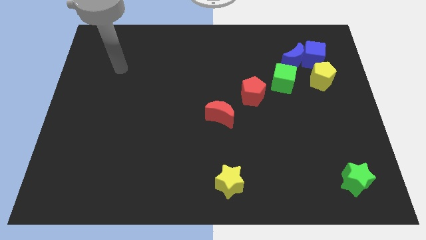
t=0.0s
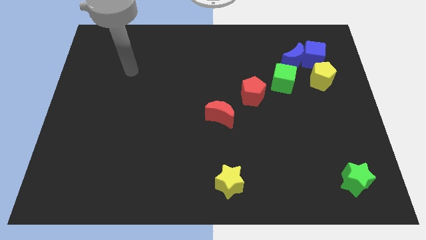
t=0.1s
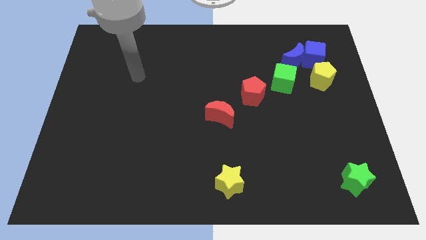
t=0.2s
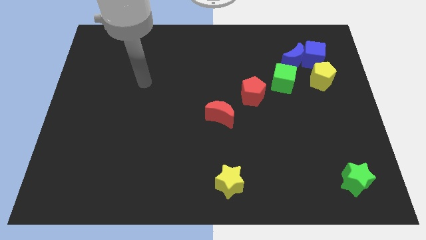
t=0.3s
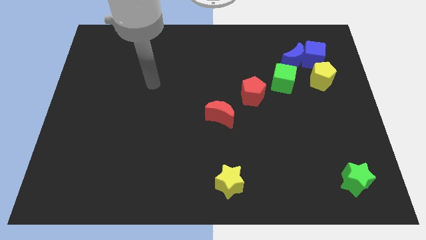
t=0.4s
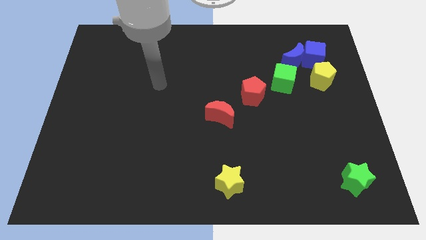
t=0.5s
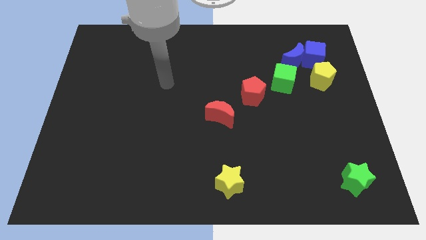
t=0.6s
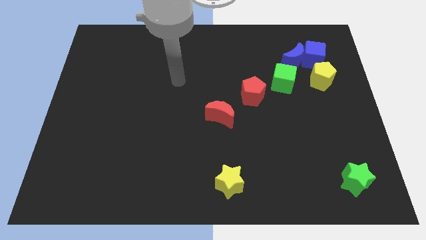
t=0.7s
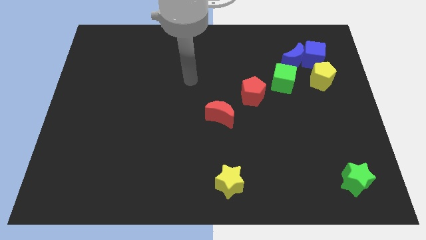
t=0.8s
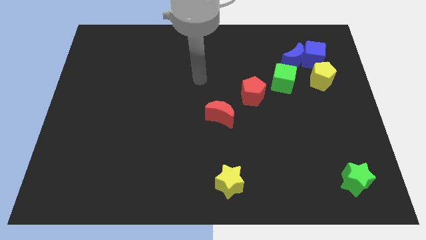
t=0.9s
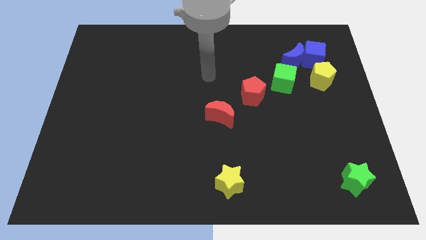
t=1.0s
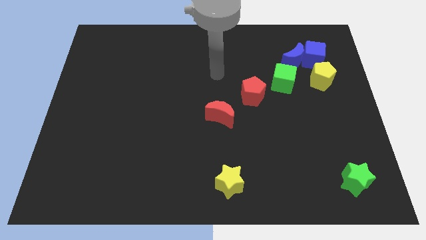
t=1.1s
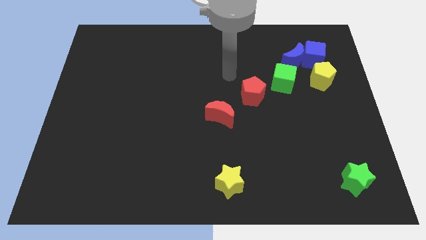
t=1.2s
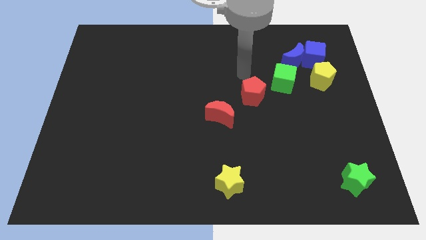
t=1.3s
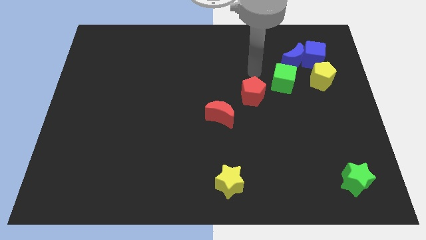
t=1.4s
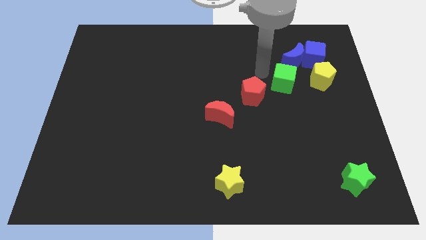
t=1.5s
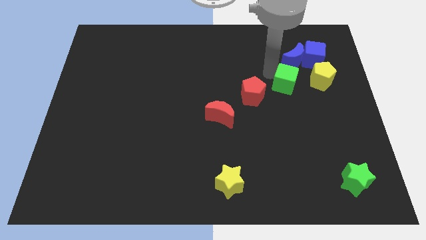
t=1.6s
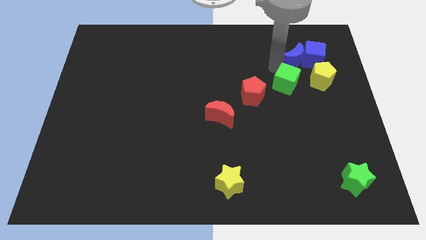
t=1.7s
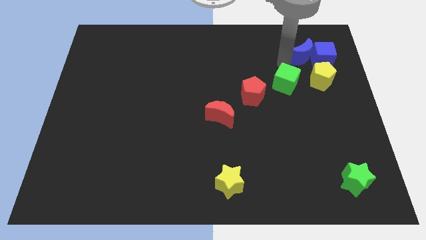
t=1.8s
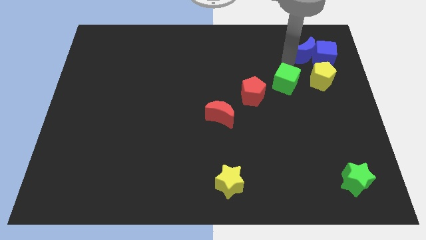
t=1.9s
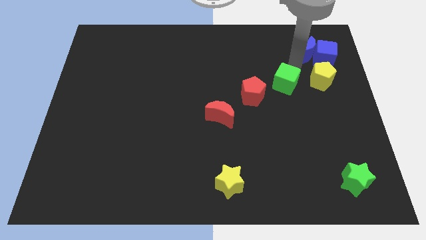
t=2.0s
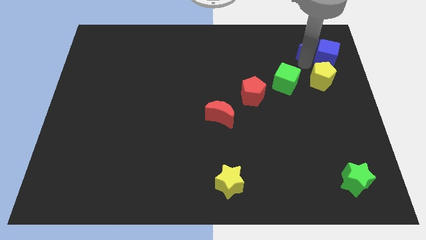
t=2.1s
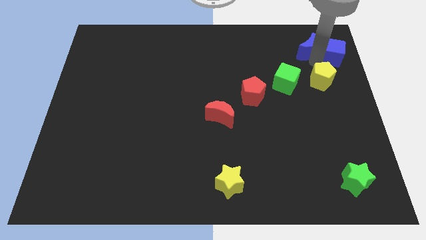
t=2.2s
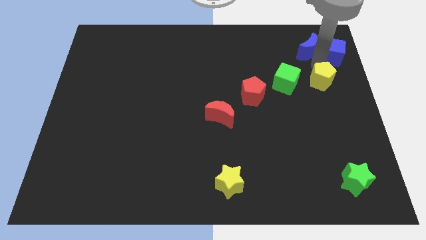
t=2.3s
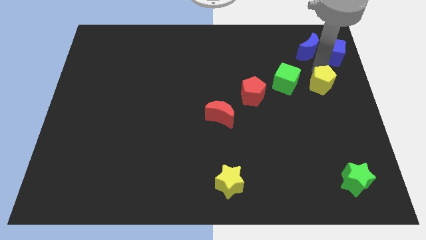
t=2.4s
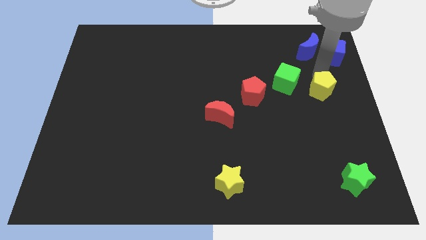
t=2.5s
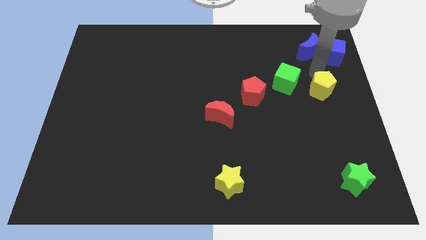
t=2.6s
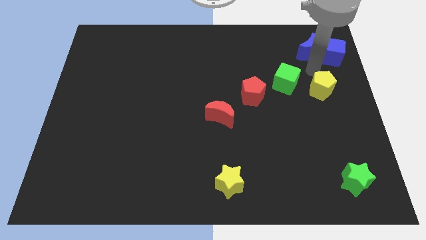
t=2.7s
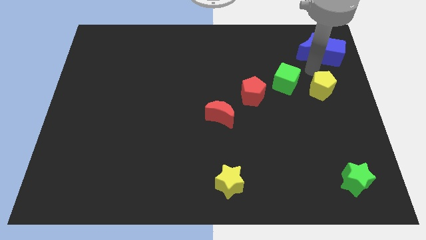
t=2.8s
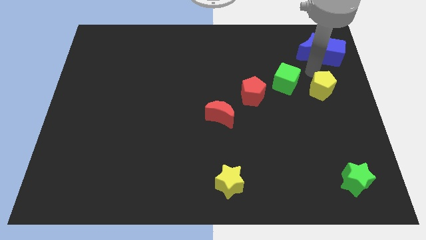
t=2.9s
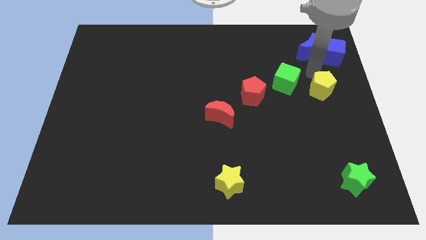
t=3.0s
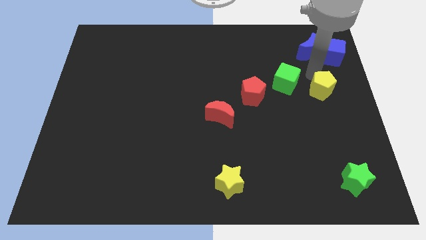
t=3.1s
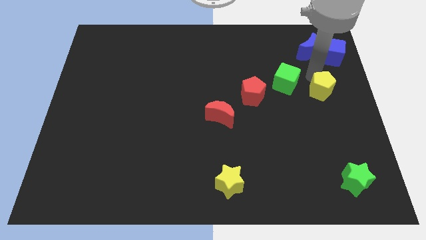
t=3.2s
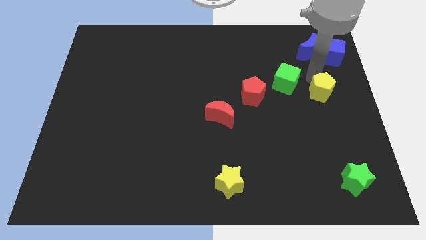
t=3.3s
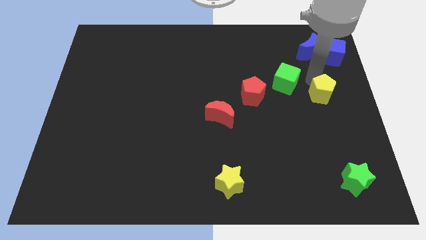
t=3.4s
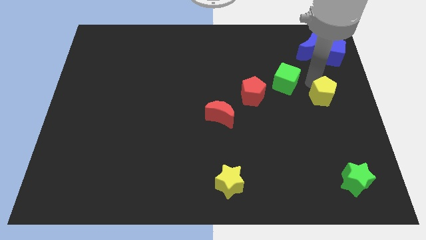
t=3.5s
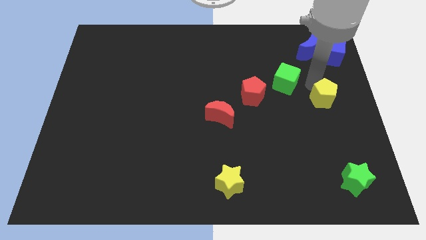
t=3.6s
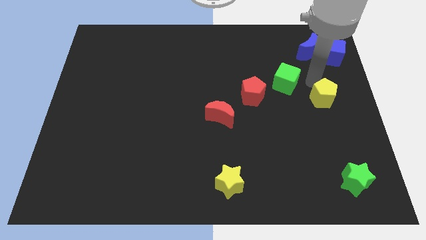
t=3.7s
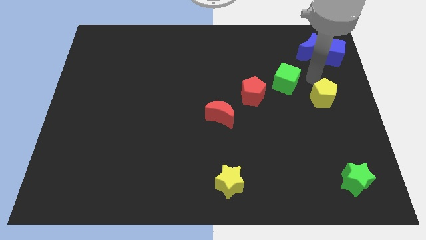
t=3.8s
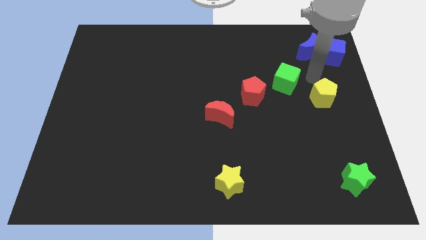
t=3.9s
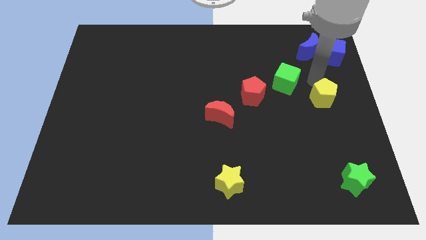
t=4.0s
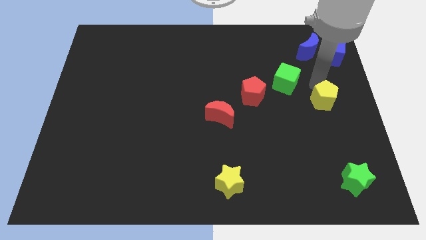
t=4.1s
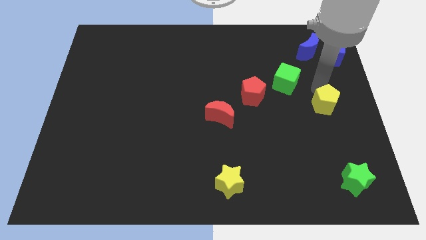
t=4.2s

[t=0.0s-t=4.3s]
slide the yellow pentagon a bit down

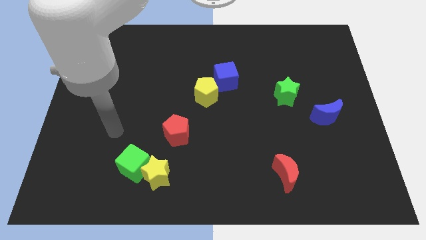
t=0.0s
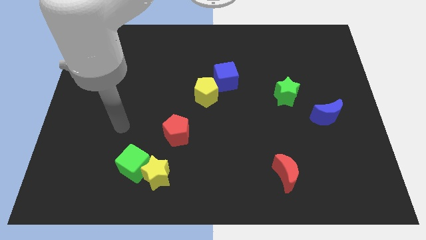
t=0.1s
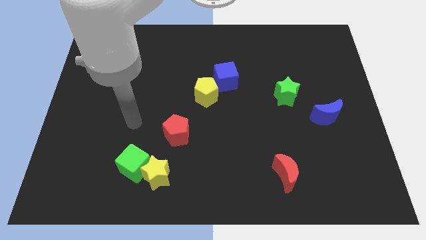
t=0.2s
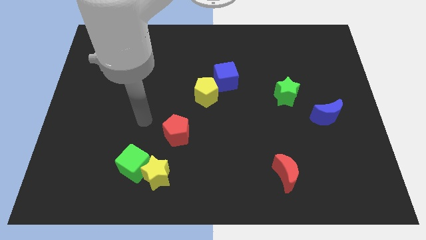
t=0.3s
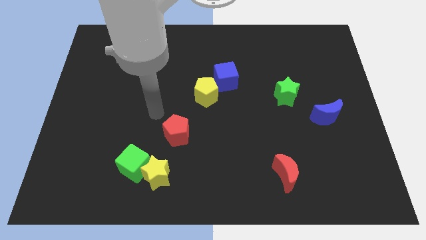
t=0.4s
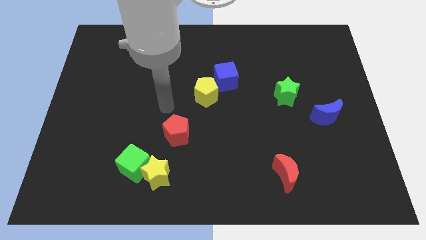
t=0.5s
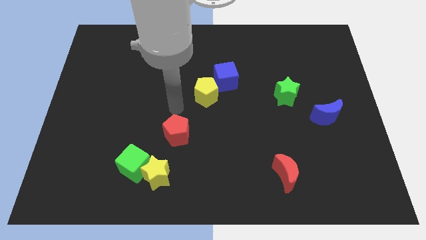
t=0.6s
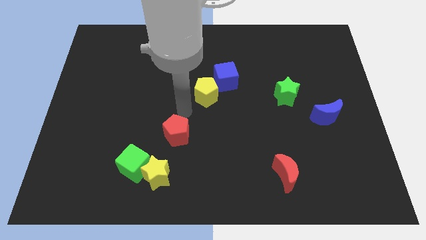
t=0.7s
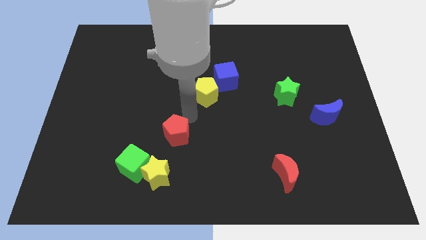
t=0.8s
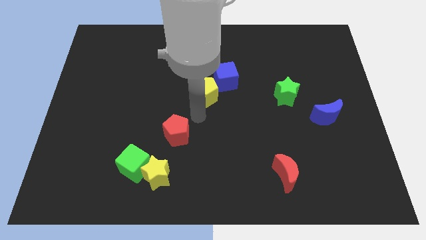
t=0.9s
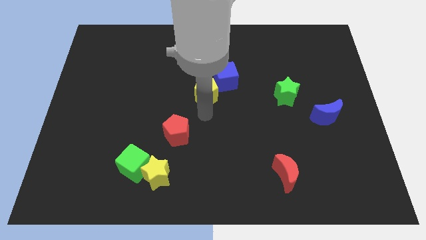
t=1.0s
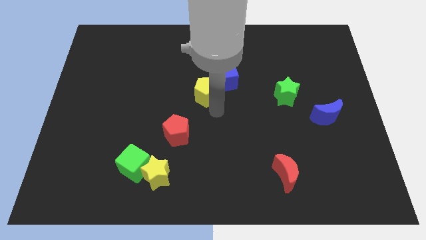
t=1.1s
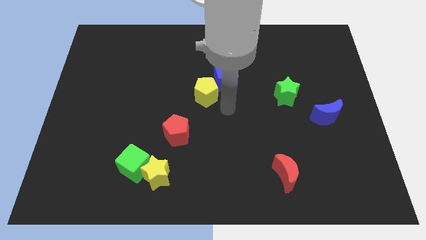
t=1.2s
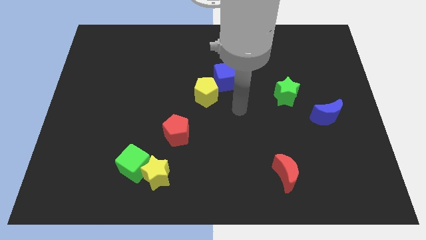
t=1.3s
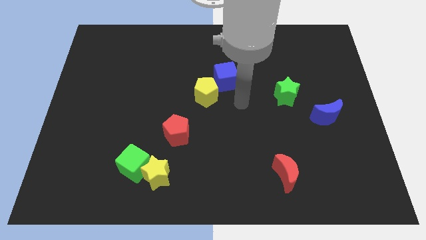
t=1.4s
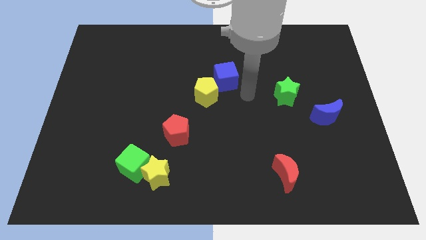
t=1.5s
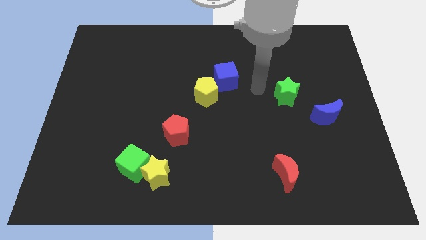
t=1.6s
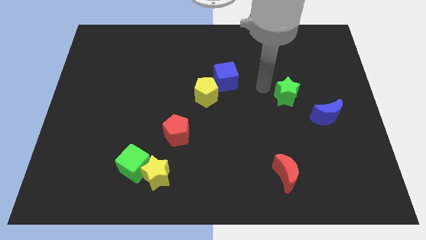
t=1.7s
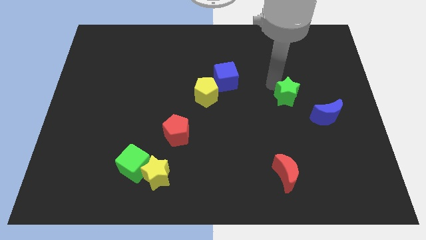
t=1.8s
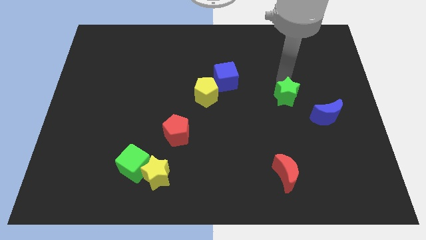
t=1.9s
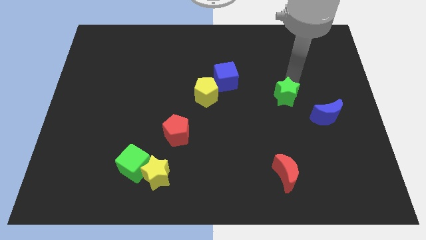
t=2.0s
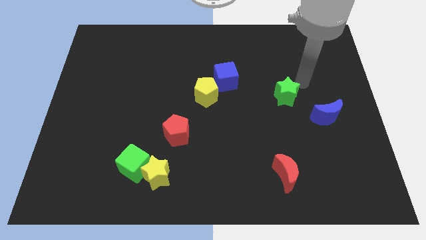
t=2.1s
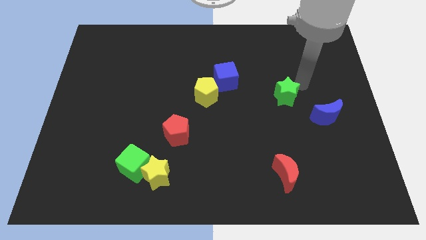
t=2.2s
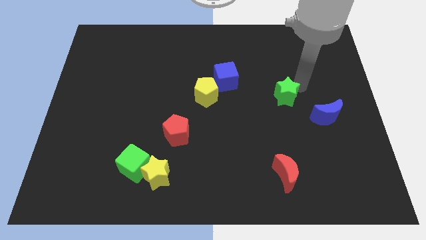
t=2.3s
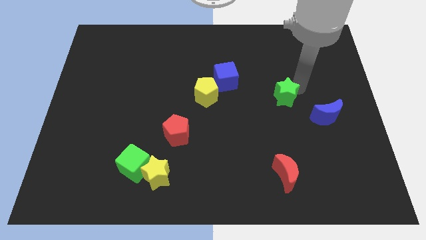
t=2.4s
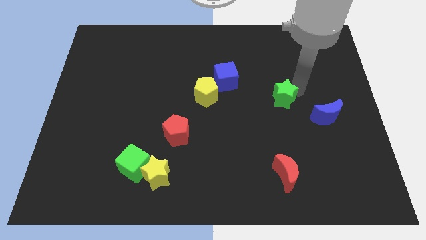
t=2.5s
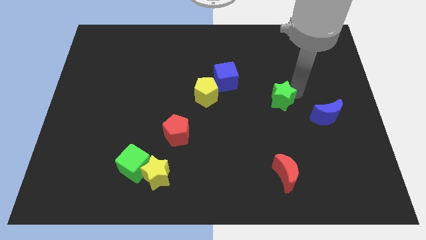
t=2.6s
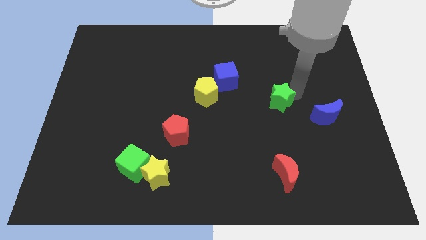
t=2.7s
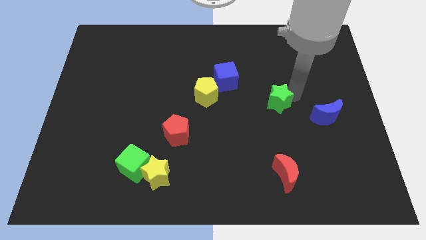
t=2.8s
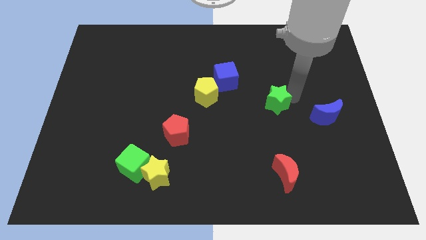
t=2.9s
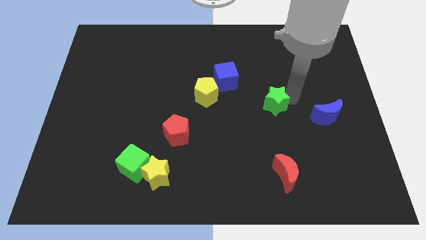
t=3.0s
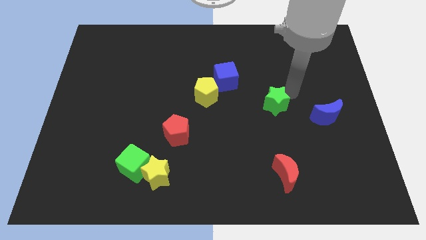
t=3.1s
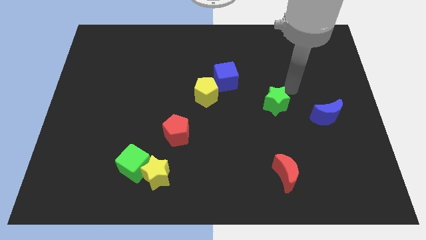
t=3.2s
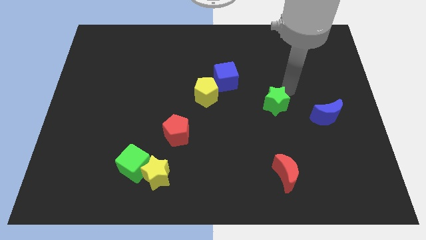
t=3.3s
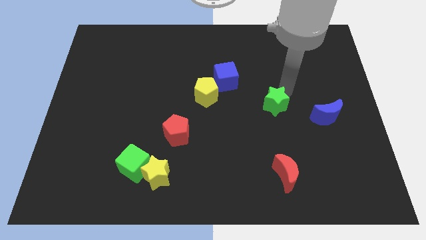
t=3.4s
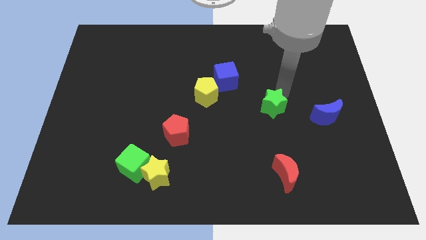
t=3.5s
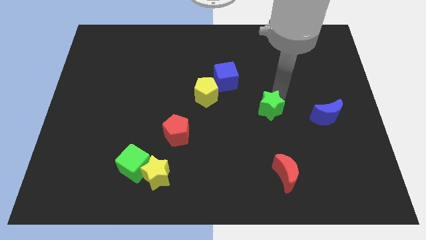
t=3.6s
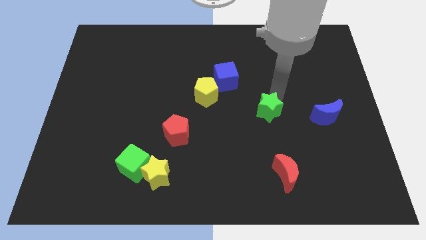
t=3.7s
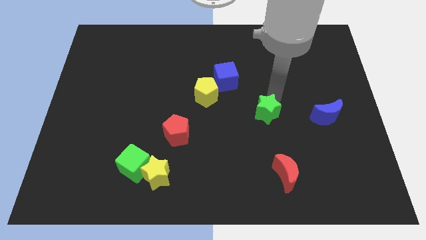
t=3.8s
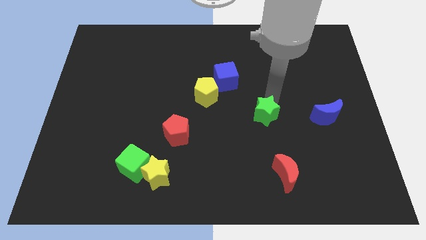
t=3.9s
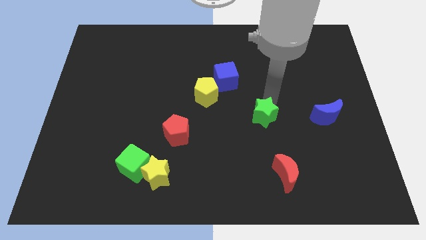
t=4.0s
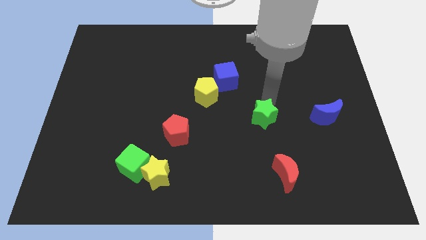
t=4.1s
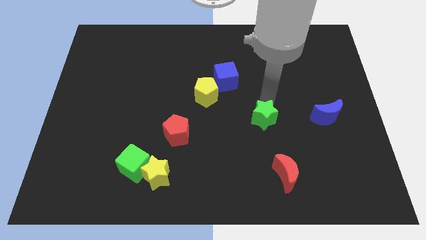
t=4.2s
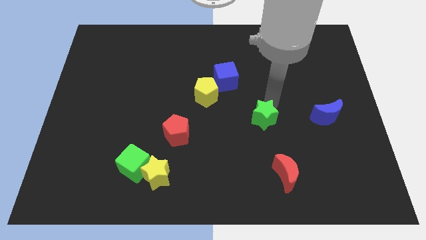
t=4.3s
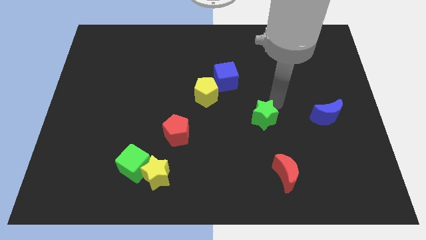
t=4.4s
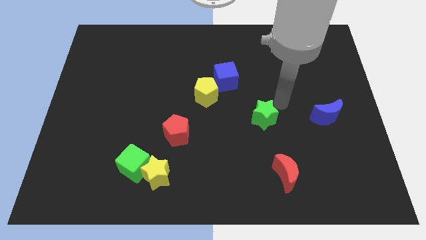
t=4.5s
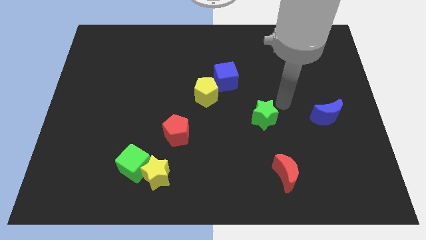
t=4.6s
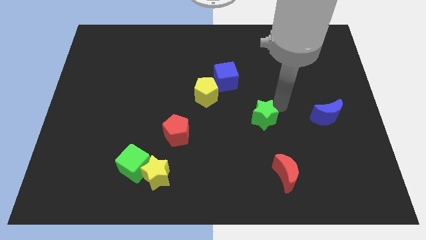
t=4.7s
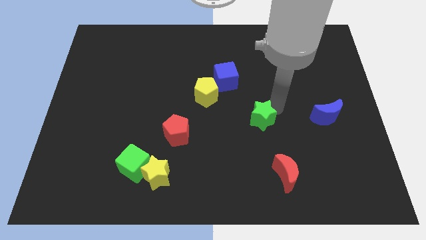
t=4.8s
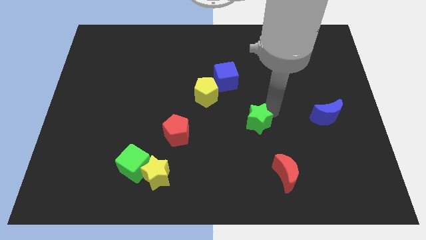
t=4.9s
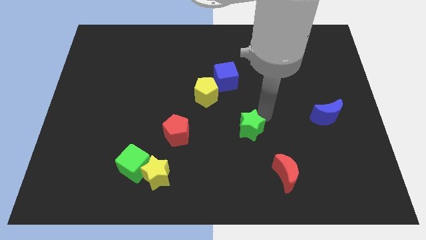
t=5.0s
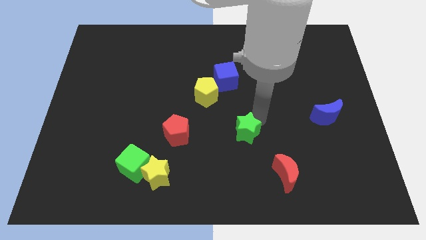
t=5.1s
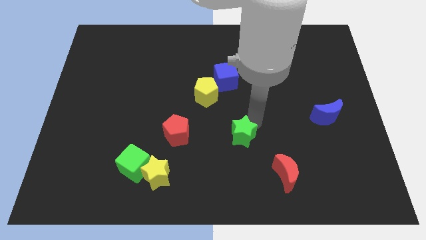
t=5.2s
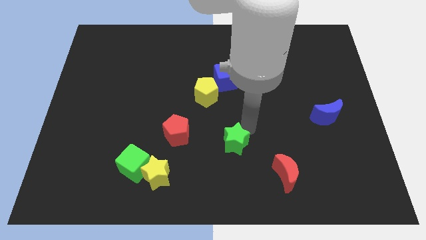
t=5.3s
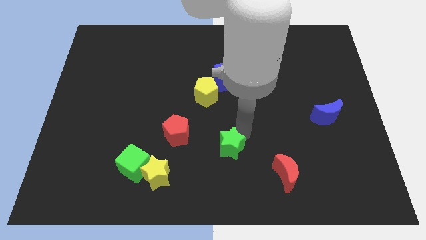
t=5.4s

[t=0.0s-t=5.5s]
push the green star diagonally down and to the left
